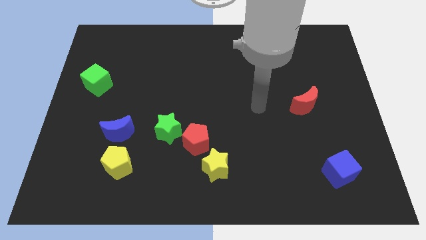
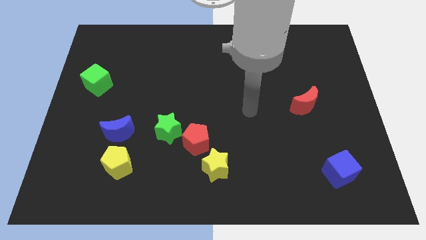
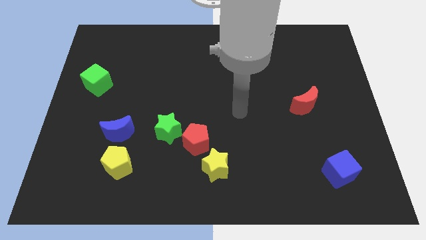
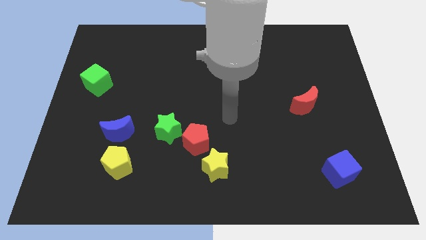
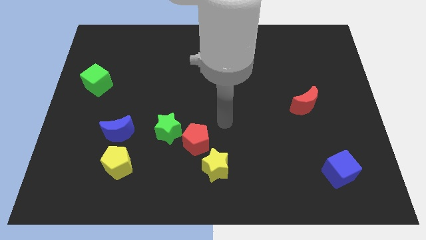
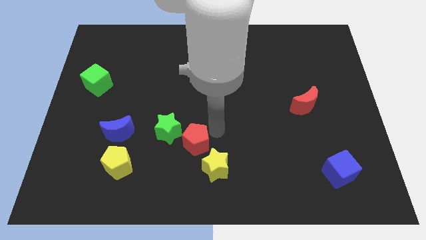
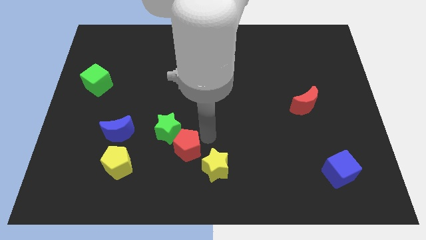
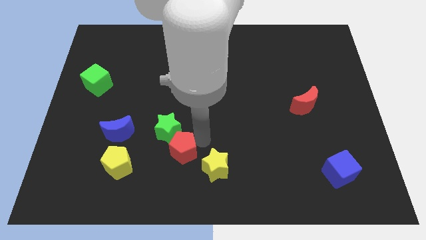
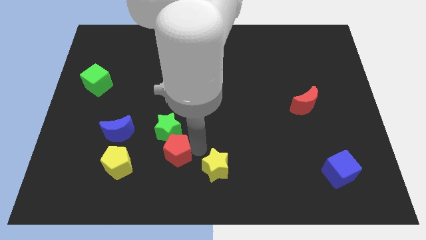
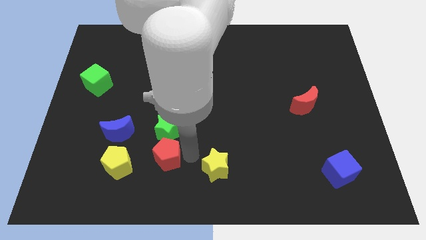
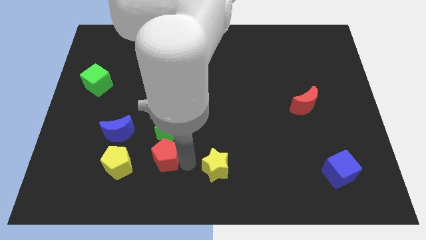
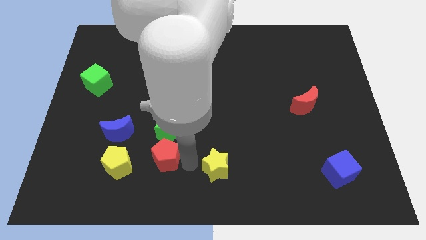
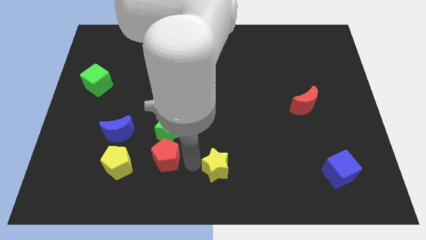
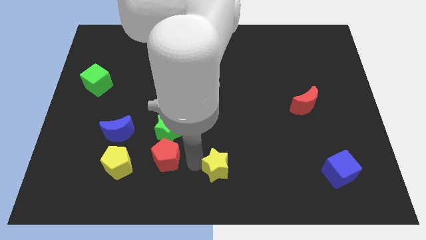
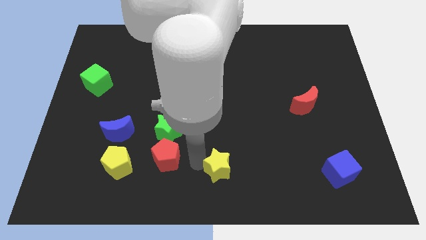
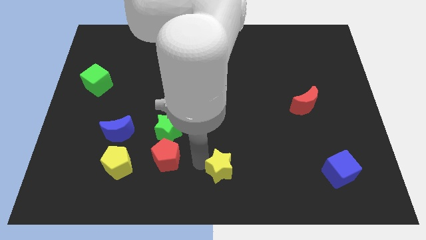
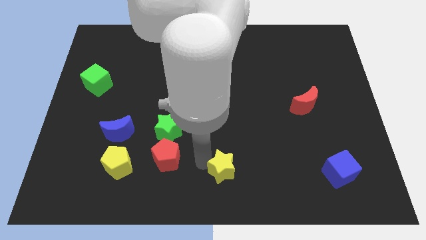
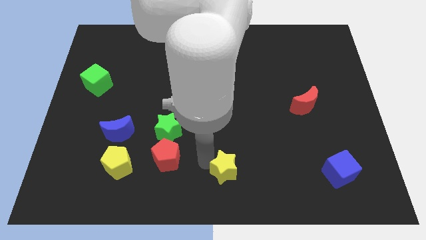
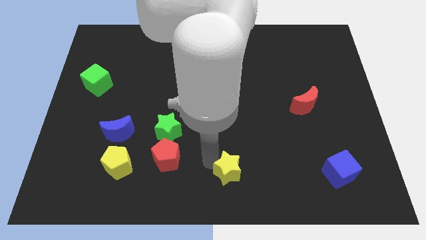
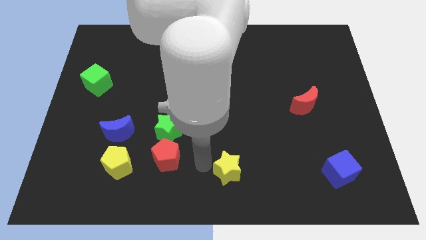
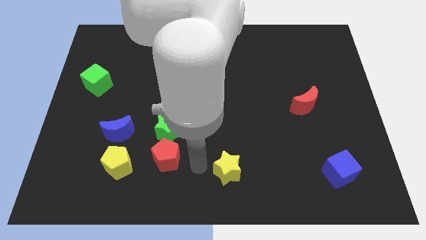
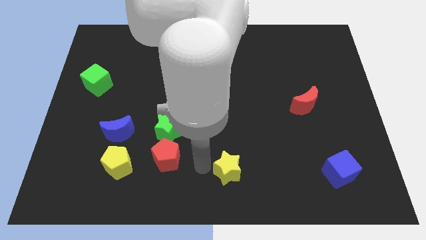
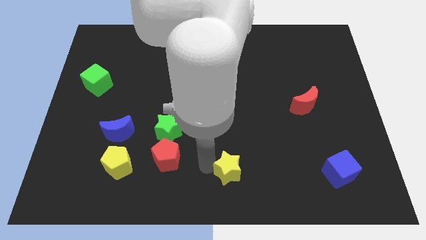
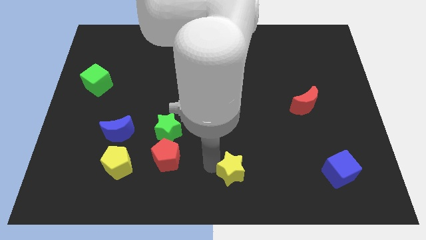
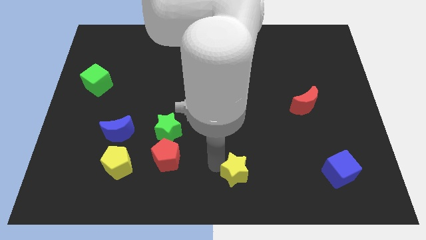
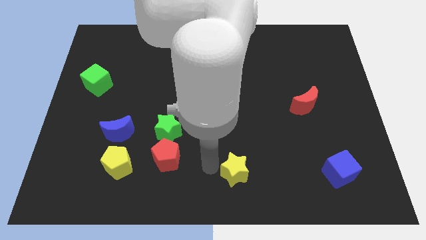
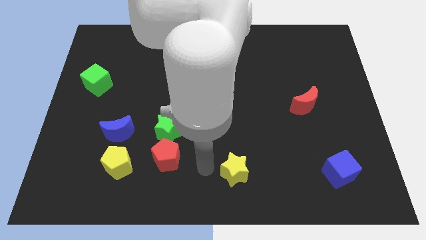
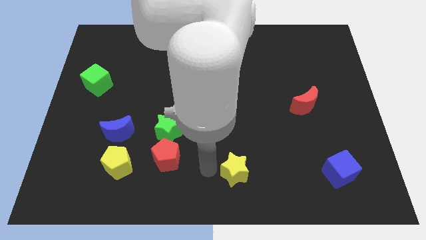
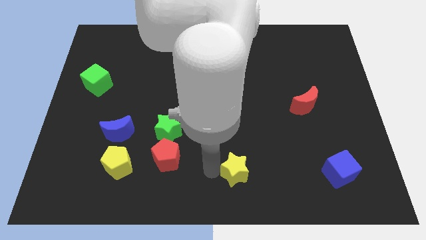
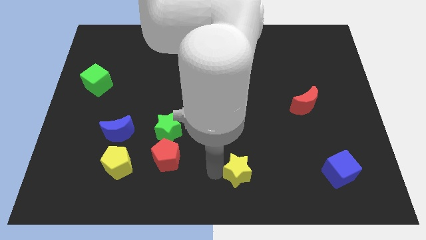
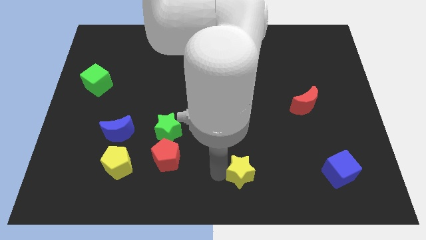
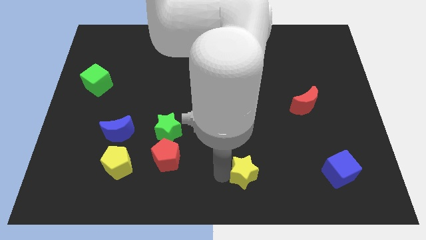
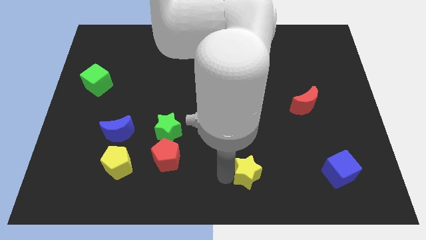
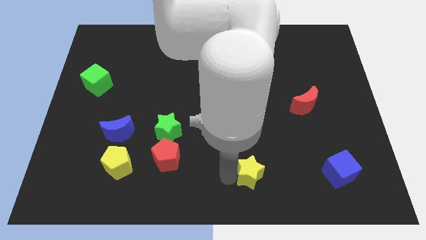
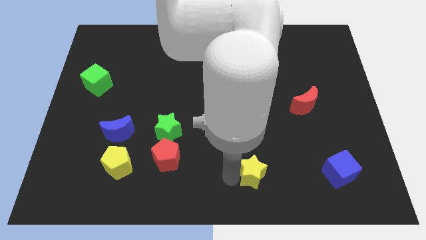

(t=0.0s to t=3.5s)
slightly move the yellow star right

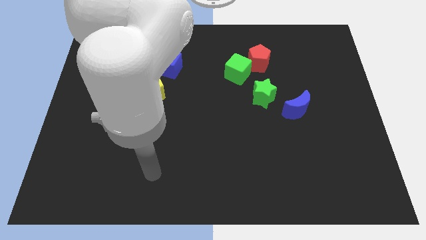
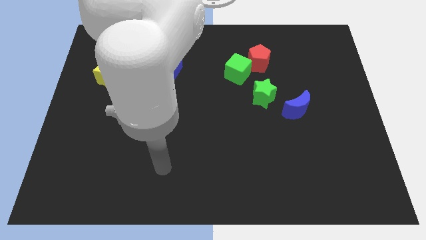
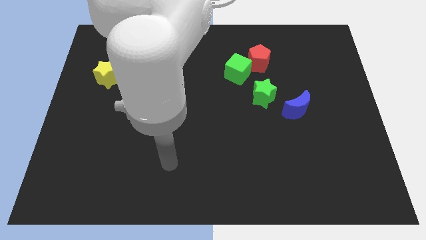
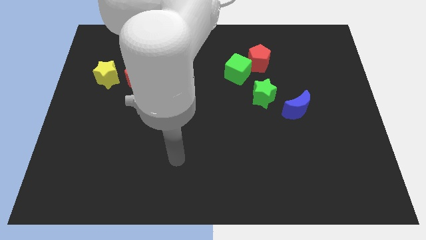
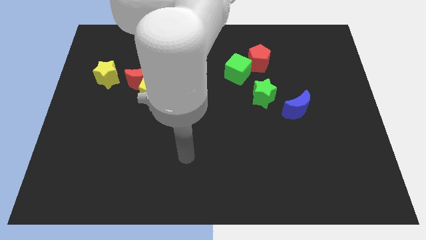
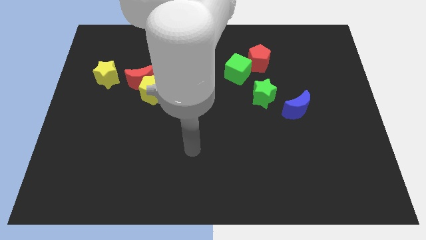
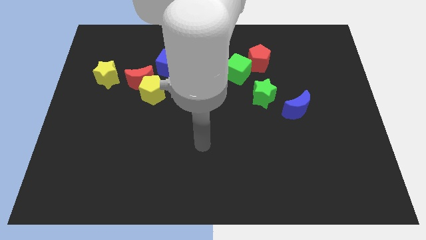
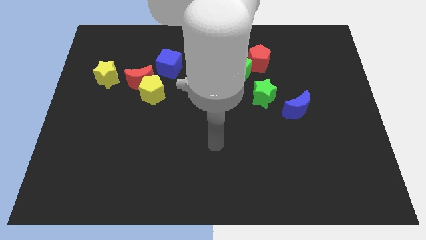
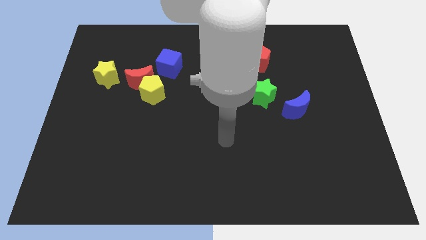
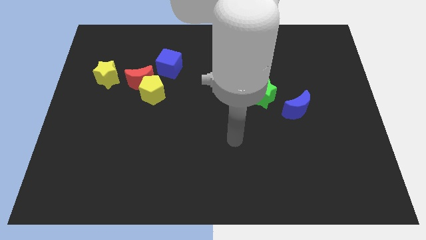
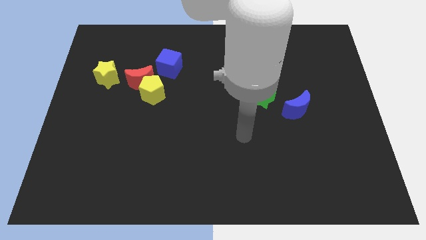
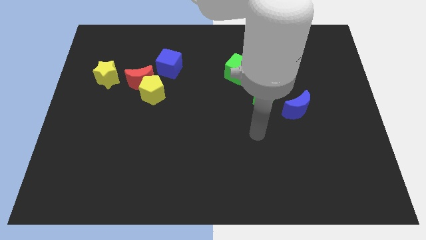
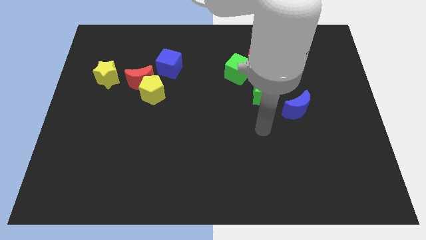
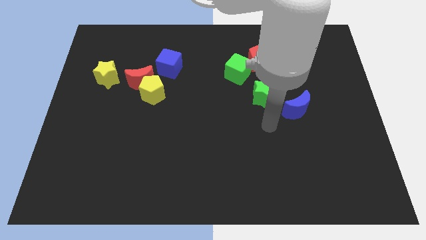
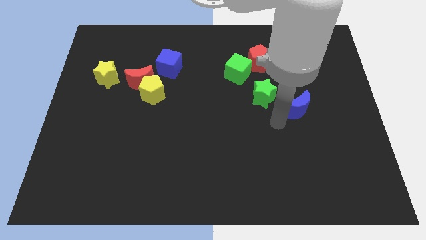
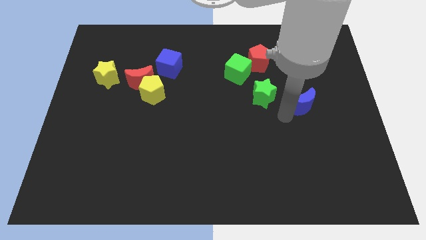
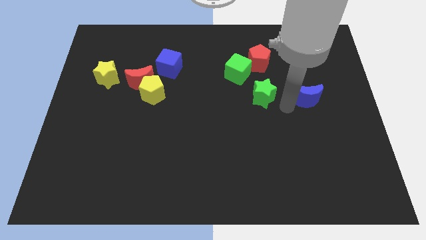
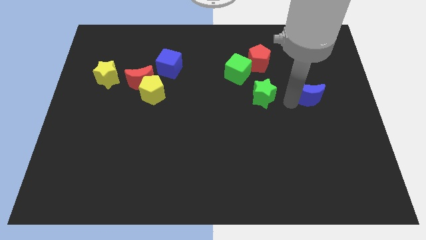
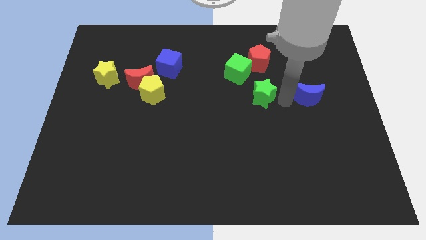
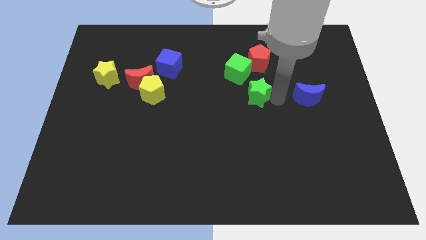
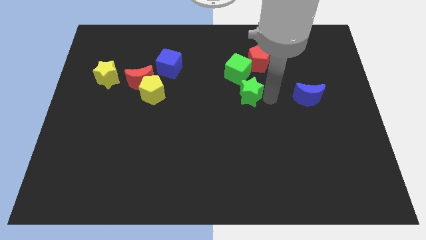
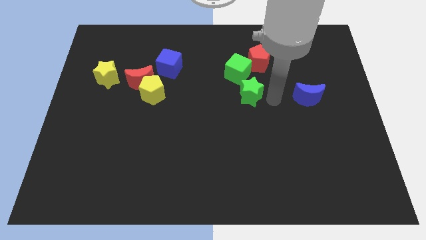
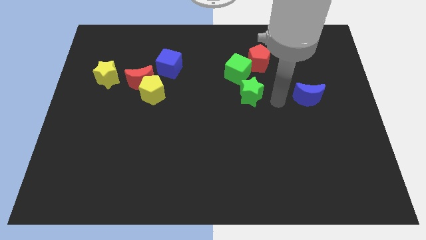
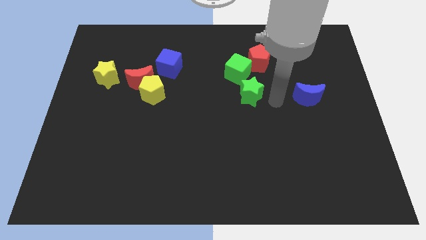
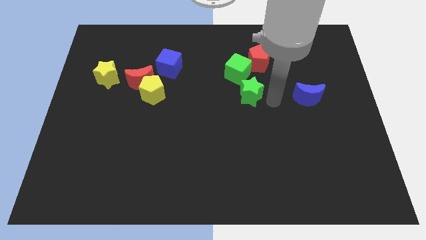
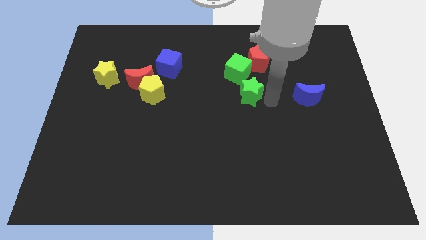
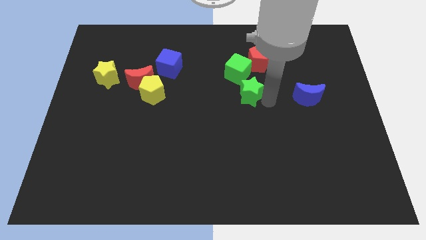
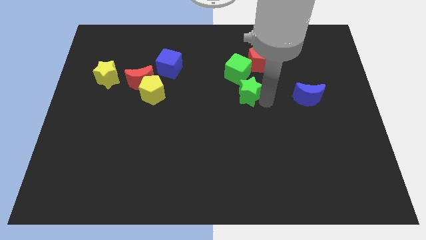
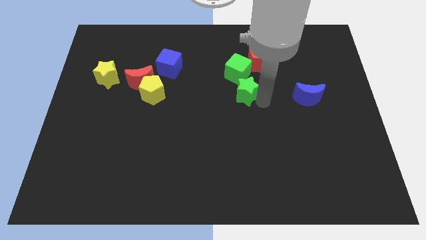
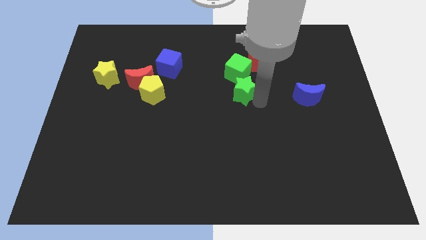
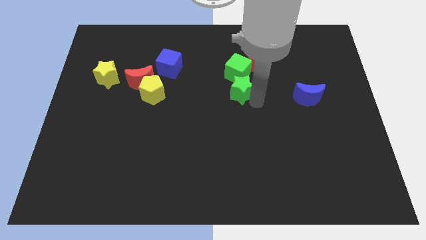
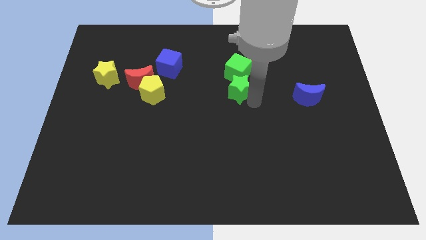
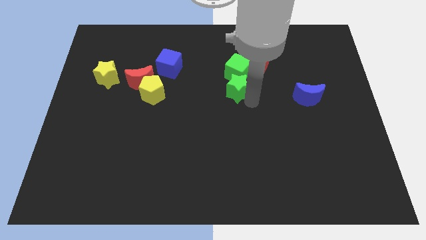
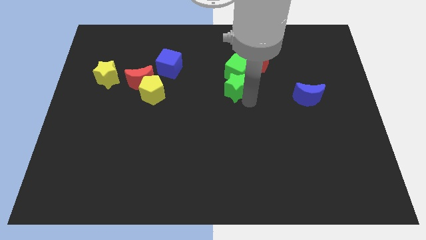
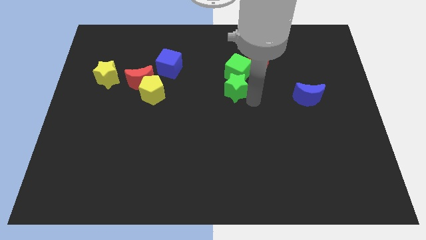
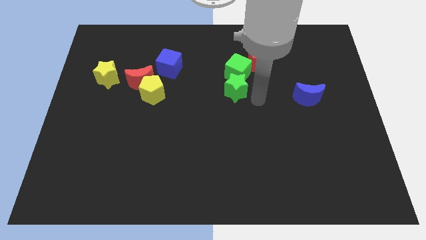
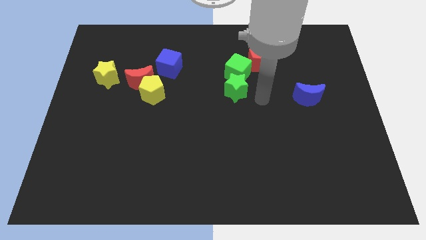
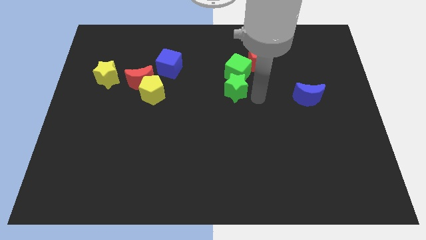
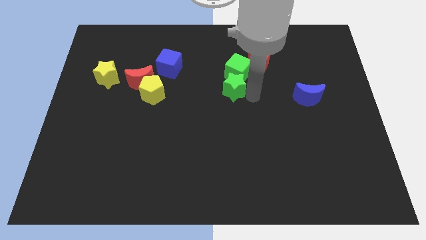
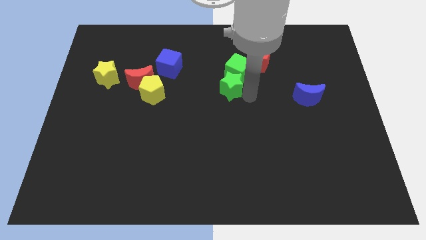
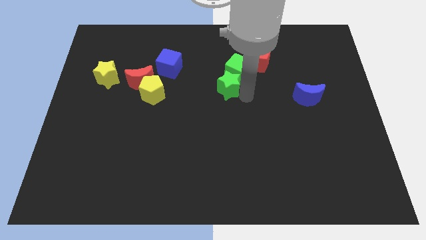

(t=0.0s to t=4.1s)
slightly slide the green star up and left diagonally
